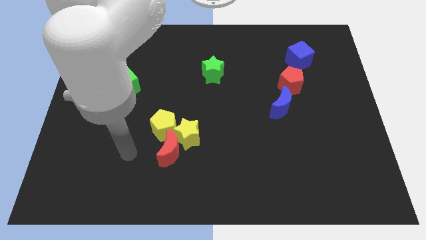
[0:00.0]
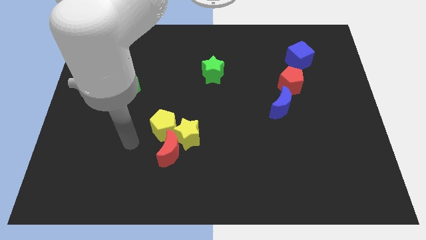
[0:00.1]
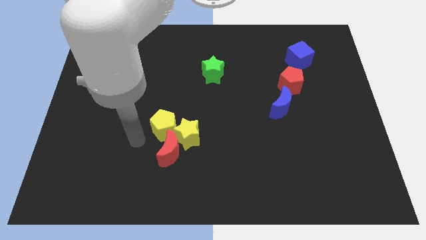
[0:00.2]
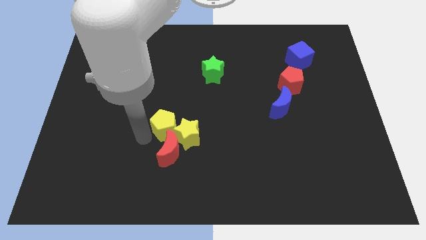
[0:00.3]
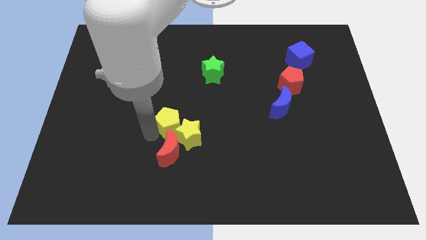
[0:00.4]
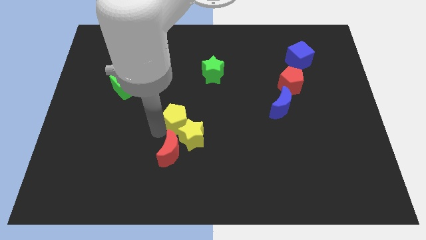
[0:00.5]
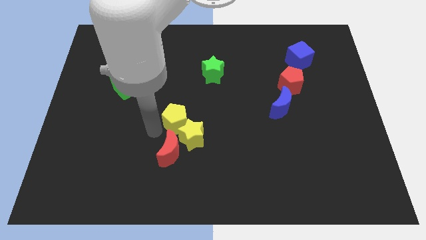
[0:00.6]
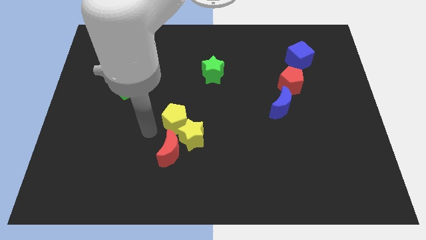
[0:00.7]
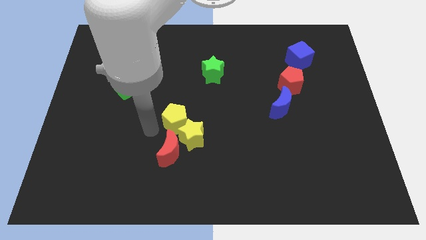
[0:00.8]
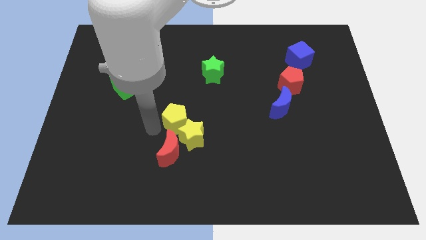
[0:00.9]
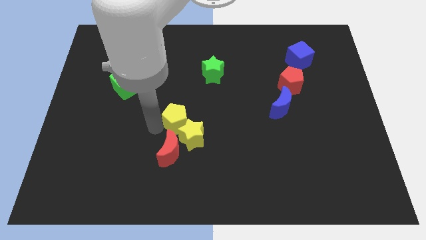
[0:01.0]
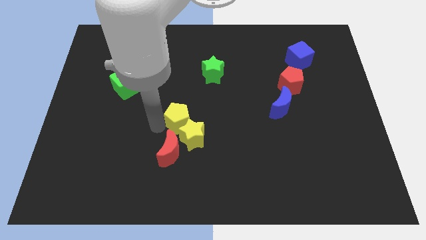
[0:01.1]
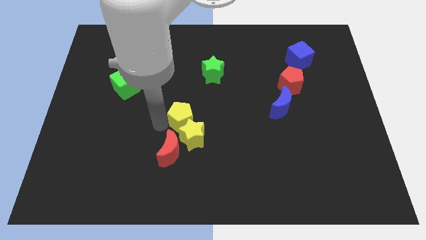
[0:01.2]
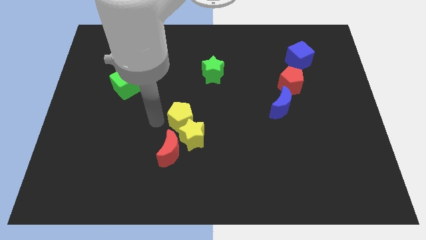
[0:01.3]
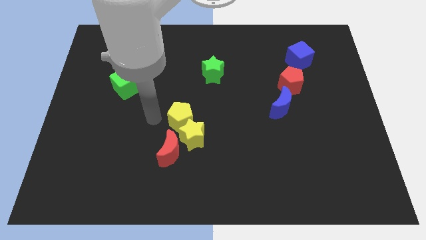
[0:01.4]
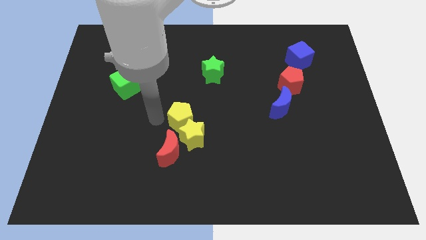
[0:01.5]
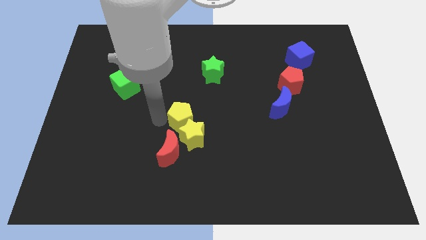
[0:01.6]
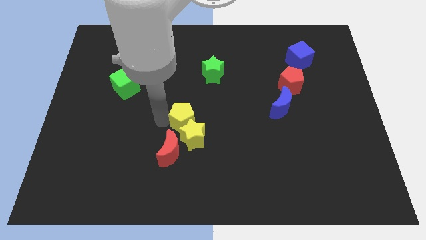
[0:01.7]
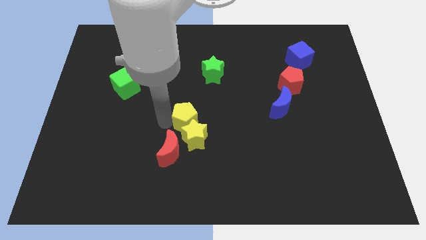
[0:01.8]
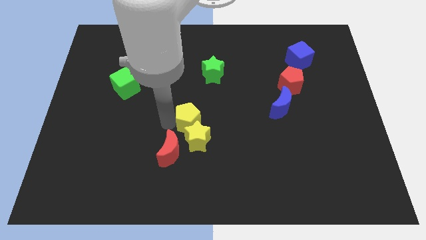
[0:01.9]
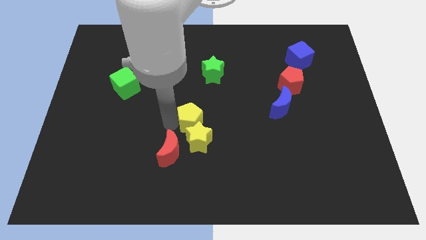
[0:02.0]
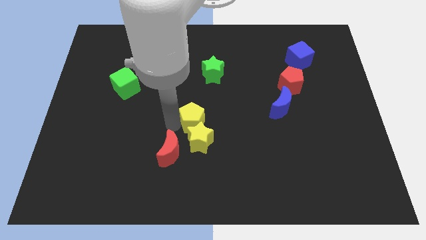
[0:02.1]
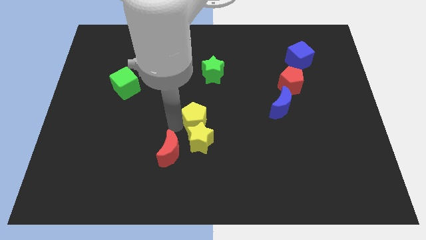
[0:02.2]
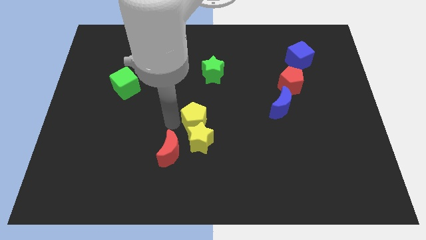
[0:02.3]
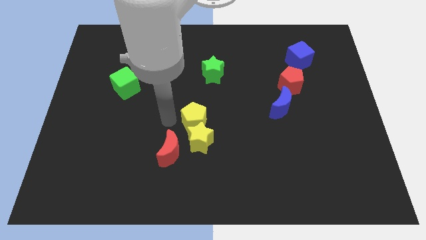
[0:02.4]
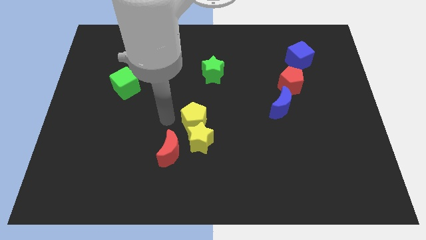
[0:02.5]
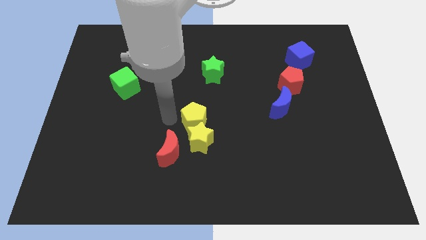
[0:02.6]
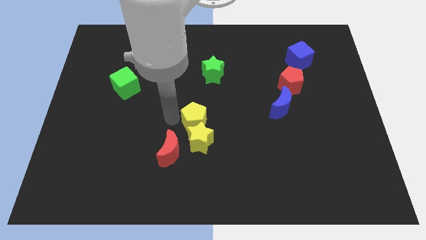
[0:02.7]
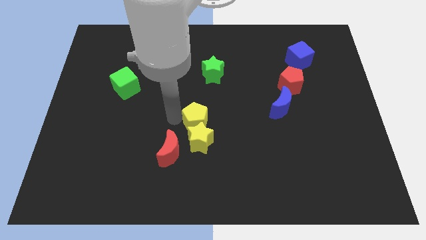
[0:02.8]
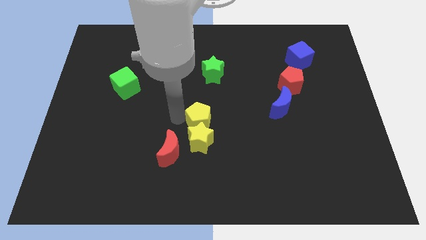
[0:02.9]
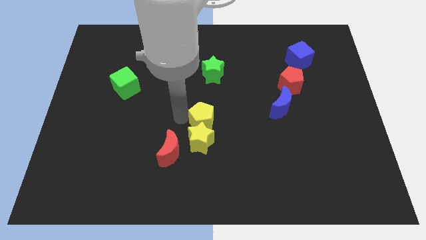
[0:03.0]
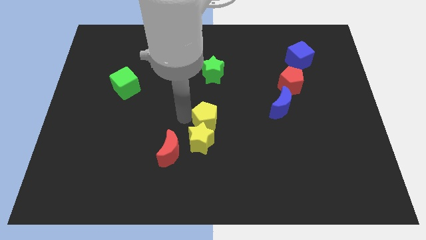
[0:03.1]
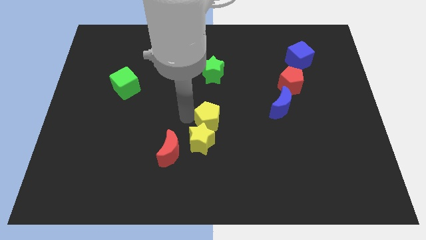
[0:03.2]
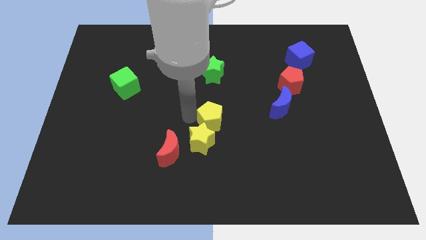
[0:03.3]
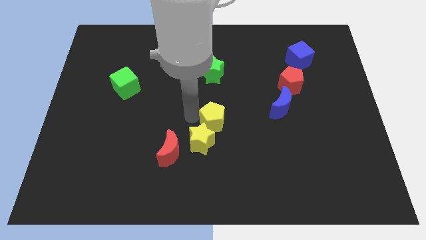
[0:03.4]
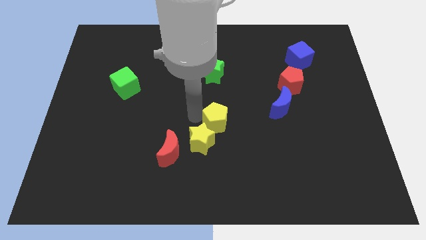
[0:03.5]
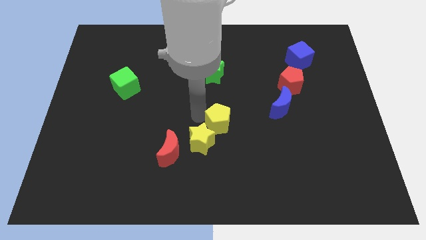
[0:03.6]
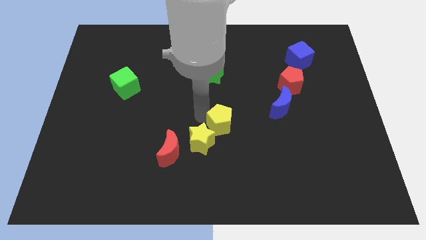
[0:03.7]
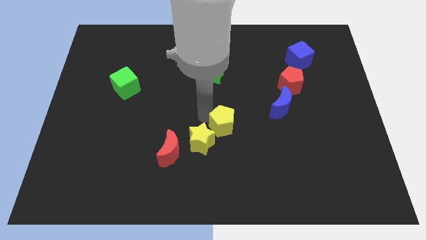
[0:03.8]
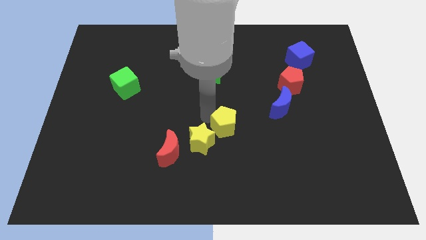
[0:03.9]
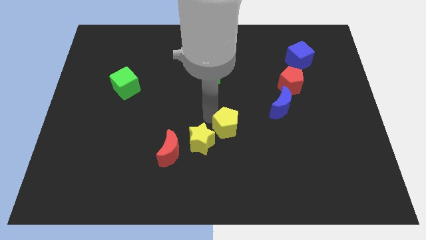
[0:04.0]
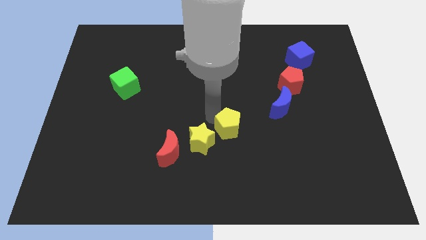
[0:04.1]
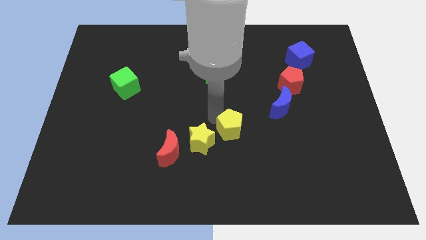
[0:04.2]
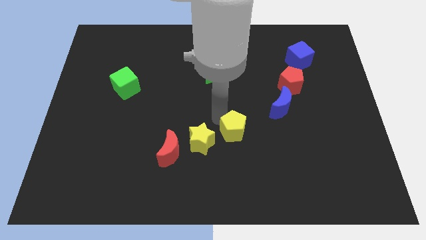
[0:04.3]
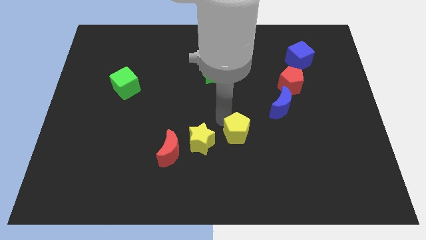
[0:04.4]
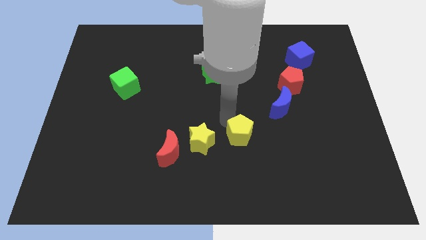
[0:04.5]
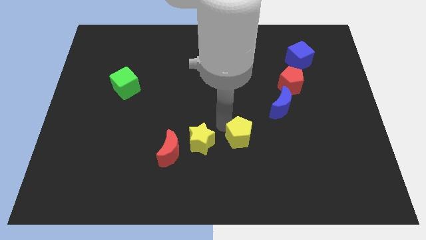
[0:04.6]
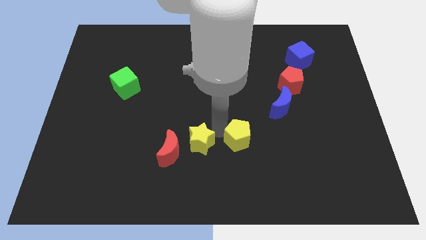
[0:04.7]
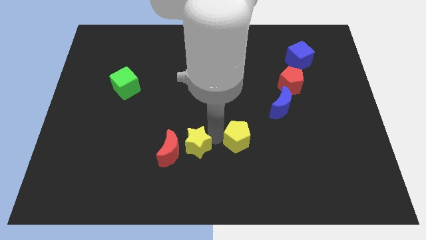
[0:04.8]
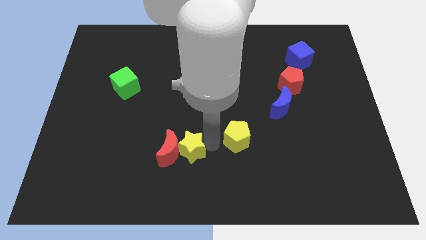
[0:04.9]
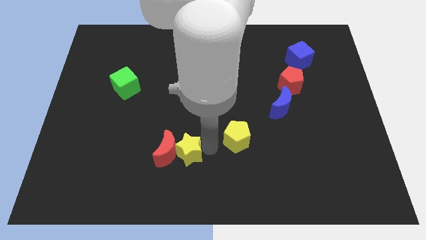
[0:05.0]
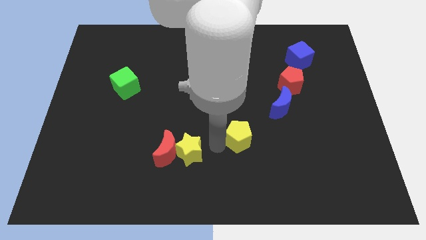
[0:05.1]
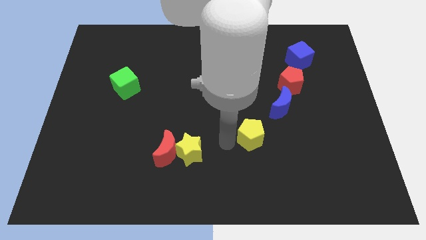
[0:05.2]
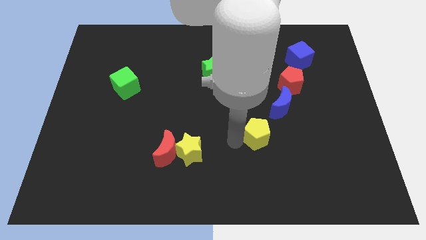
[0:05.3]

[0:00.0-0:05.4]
slide the yellow pentagon right

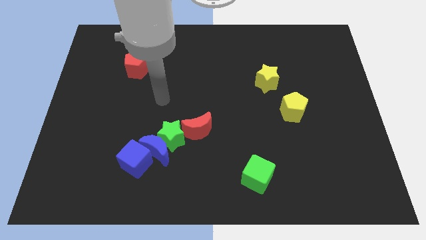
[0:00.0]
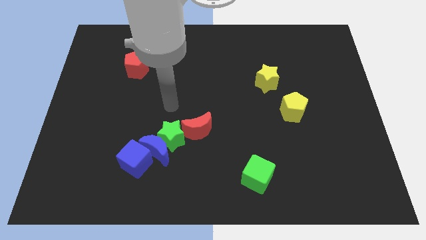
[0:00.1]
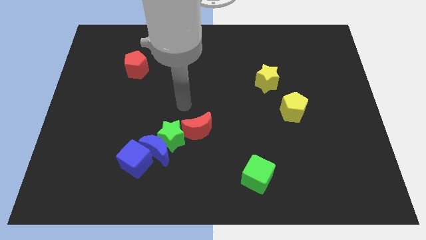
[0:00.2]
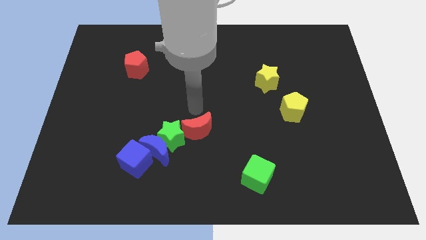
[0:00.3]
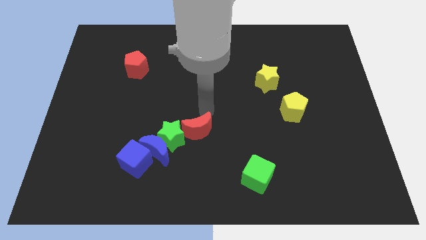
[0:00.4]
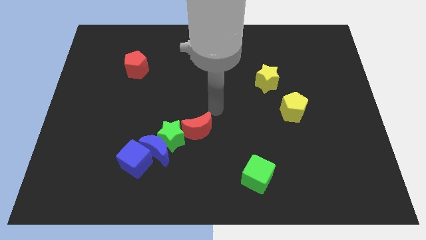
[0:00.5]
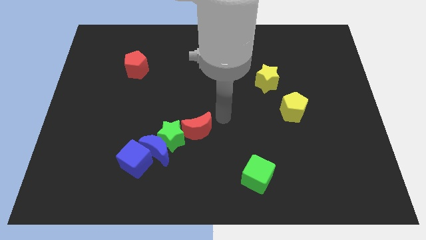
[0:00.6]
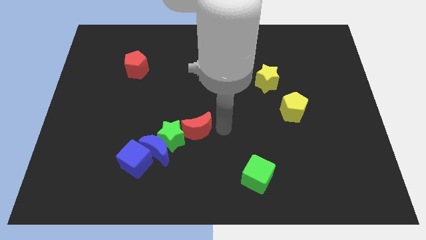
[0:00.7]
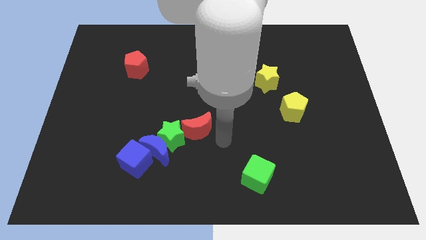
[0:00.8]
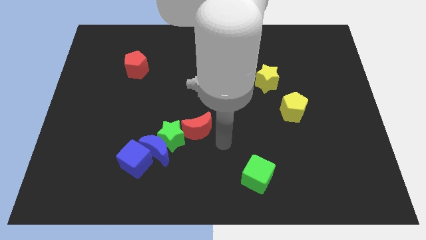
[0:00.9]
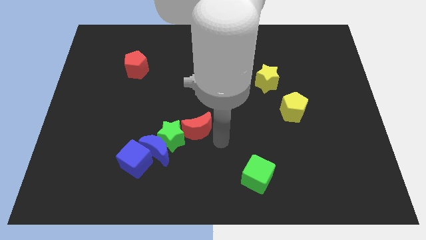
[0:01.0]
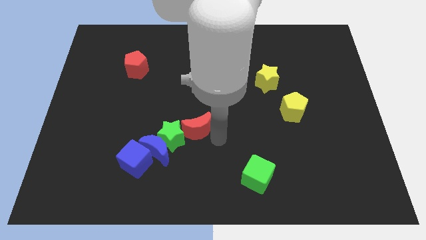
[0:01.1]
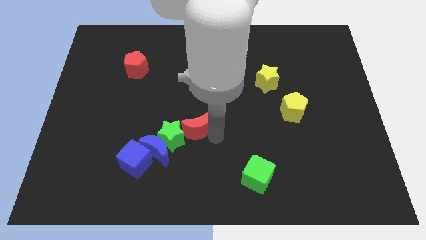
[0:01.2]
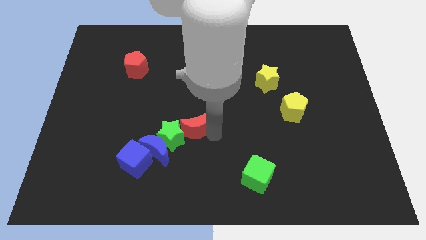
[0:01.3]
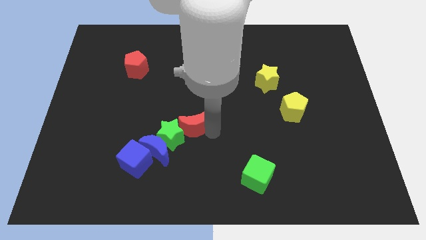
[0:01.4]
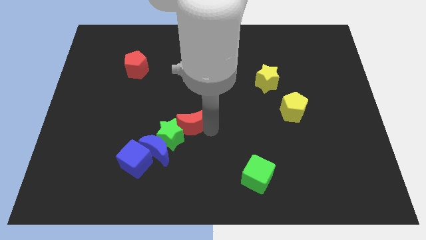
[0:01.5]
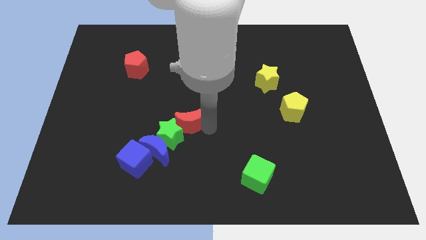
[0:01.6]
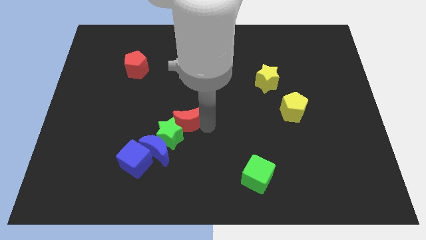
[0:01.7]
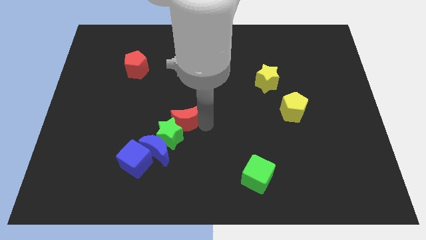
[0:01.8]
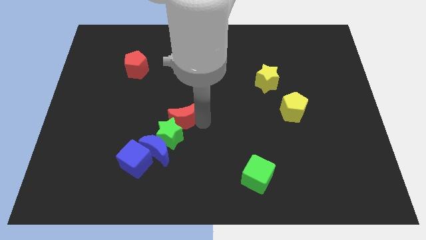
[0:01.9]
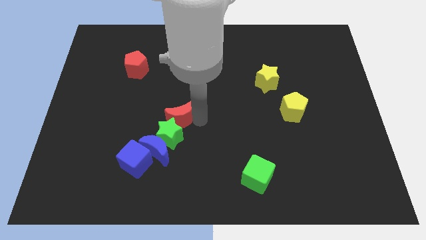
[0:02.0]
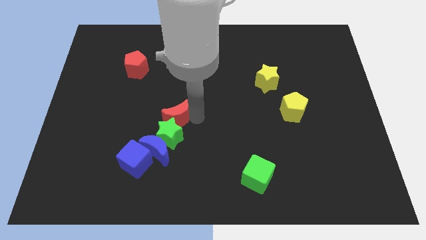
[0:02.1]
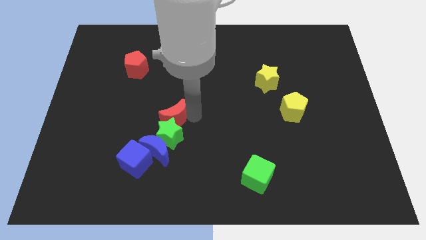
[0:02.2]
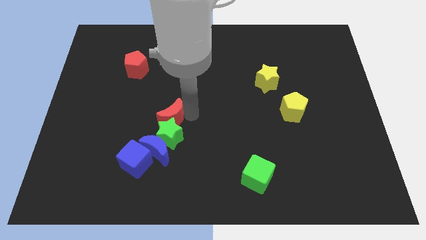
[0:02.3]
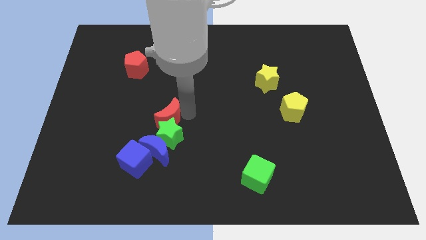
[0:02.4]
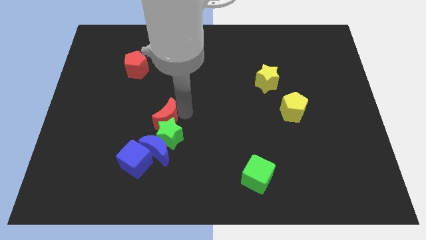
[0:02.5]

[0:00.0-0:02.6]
move the red moon slightly to the left

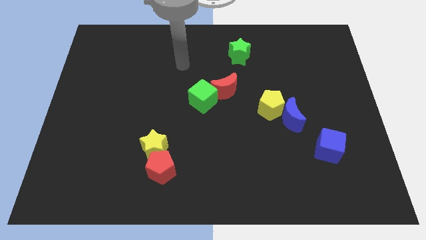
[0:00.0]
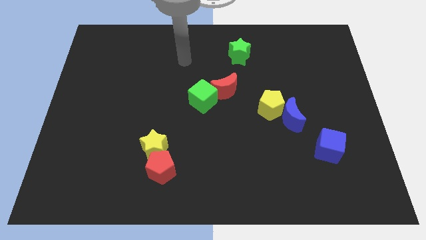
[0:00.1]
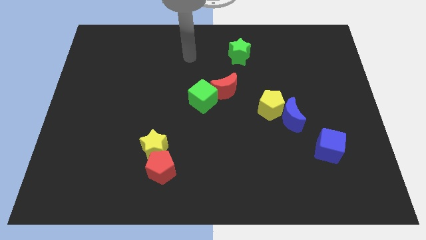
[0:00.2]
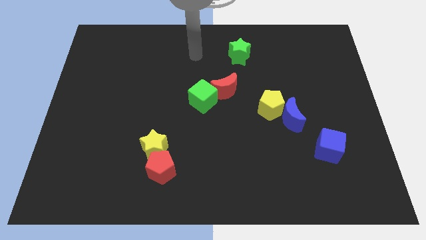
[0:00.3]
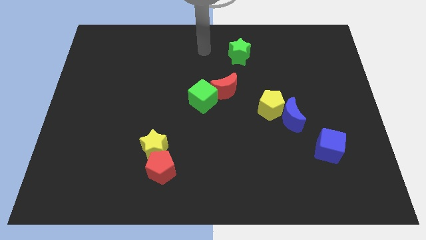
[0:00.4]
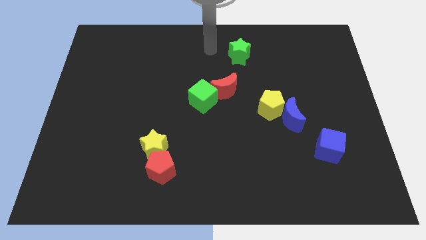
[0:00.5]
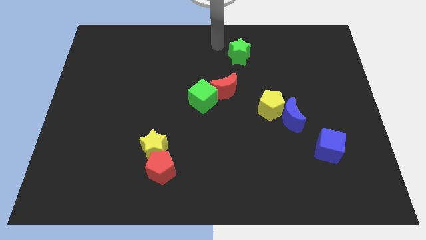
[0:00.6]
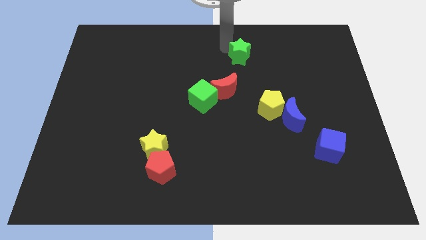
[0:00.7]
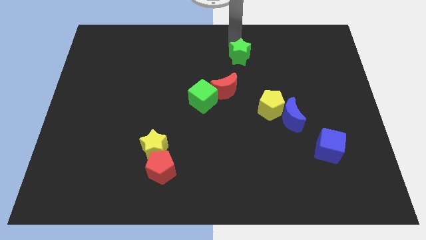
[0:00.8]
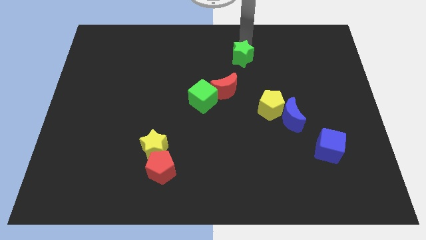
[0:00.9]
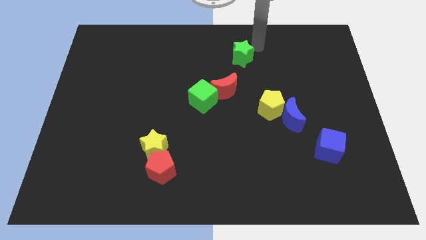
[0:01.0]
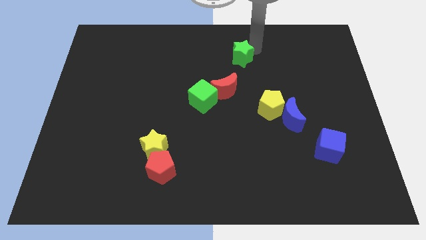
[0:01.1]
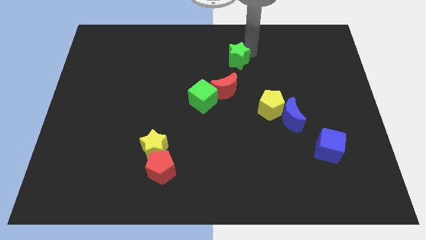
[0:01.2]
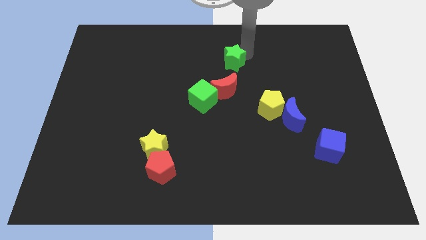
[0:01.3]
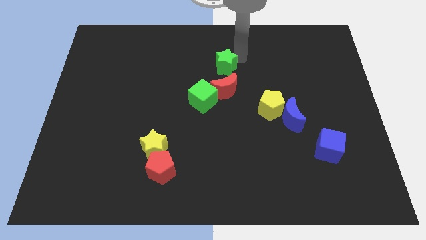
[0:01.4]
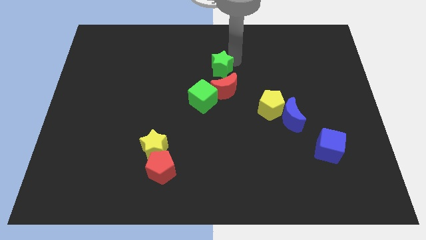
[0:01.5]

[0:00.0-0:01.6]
move the green star a bit downwards and to the left
